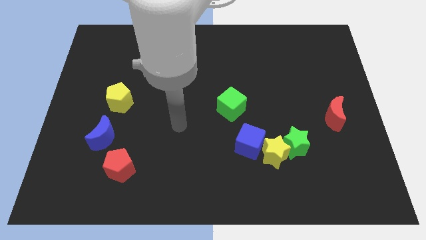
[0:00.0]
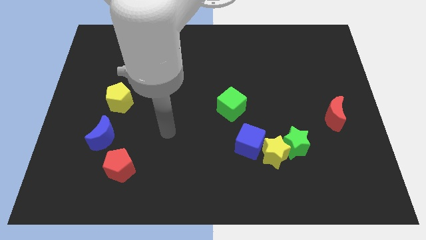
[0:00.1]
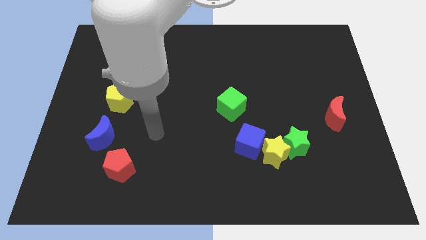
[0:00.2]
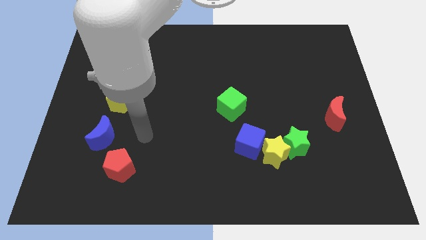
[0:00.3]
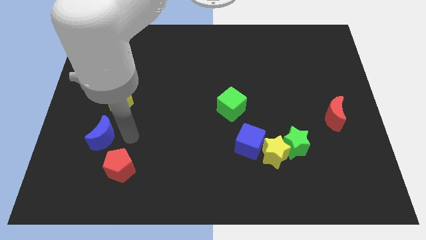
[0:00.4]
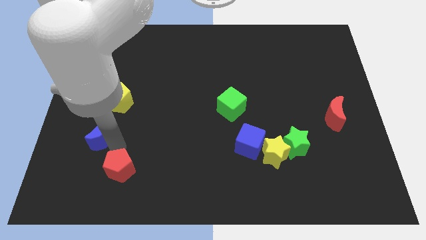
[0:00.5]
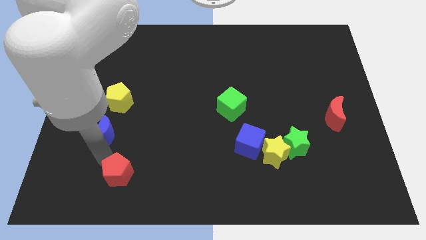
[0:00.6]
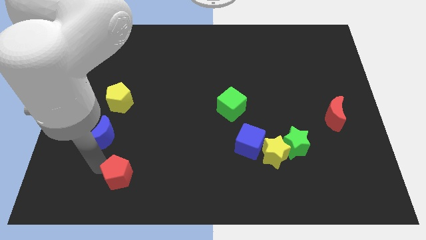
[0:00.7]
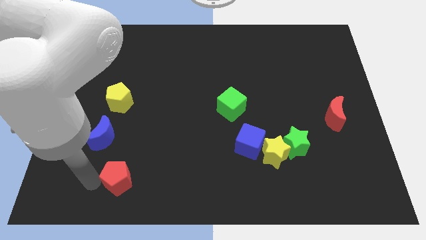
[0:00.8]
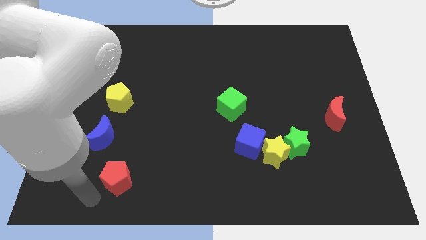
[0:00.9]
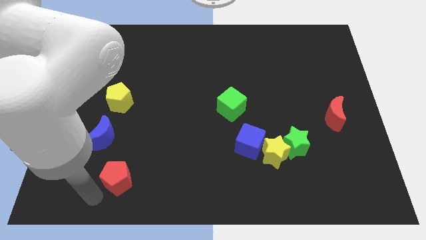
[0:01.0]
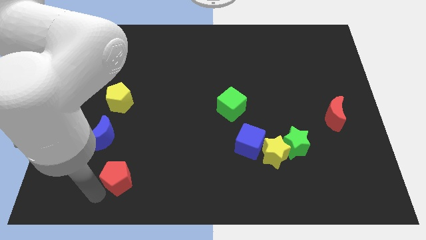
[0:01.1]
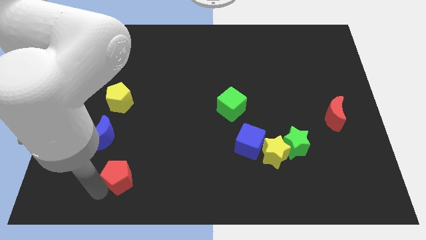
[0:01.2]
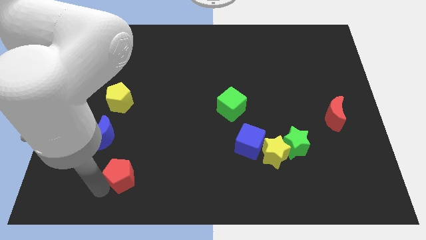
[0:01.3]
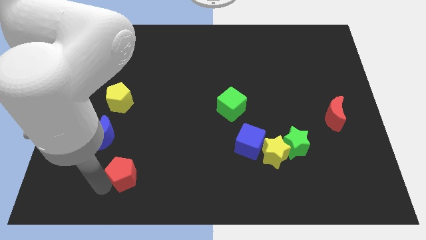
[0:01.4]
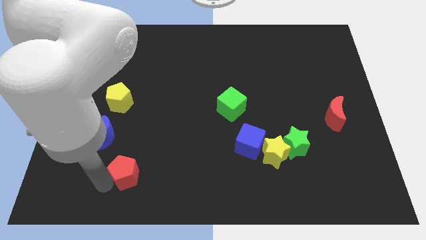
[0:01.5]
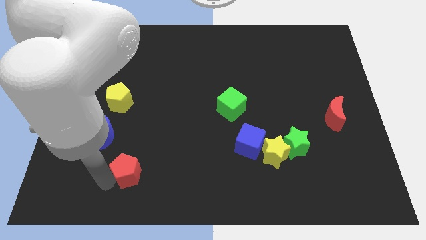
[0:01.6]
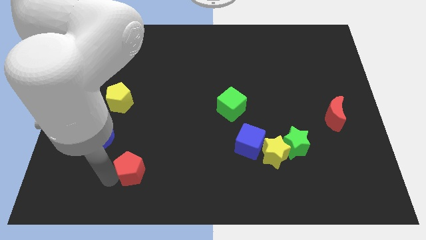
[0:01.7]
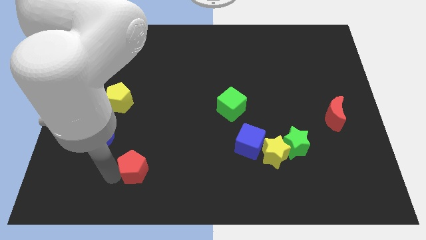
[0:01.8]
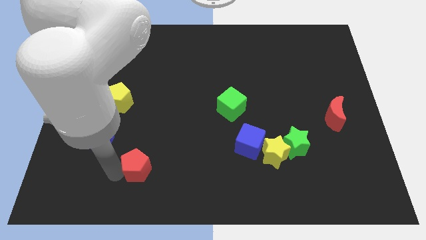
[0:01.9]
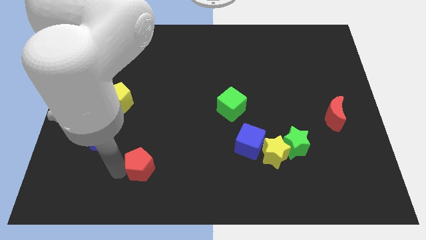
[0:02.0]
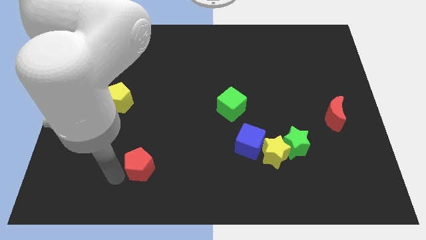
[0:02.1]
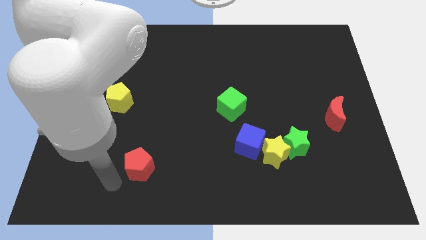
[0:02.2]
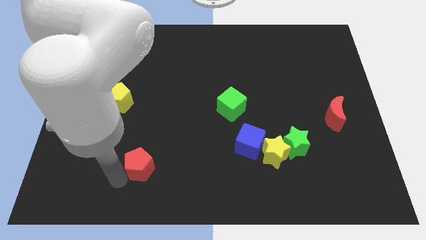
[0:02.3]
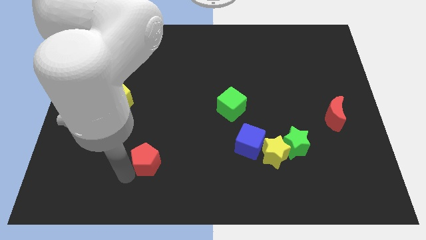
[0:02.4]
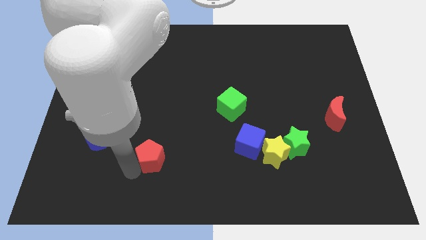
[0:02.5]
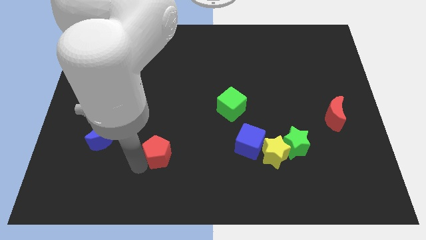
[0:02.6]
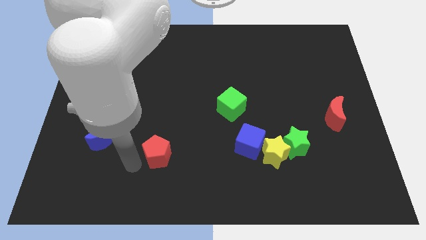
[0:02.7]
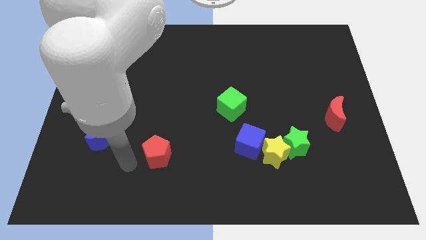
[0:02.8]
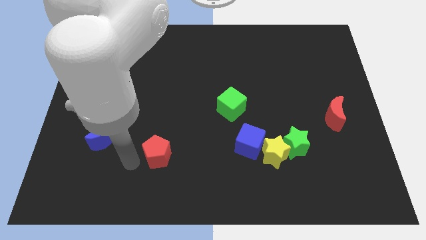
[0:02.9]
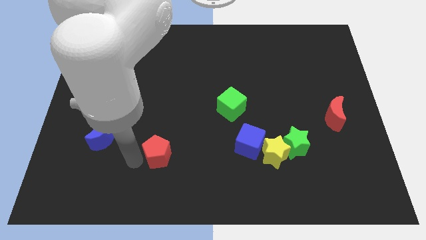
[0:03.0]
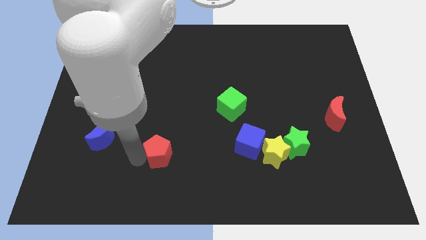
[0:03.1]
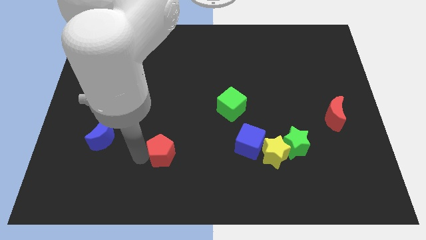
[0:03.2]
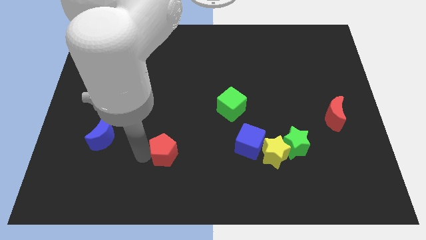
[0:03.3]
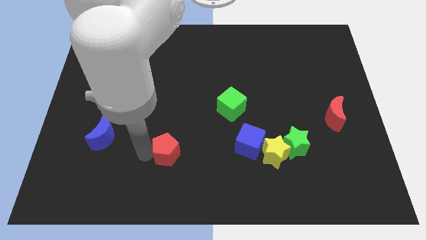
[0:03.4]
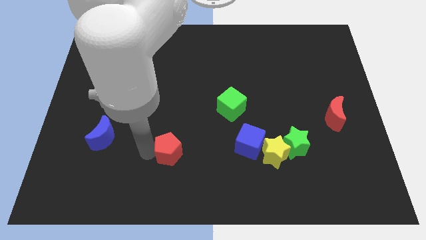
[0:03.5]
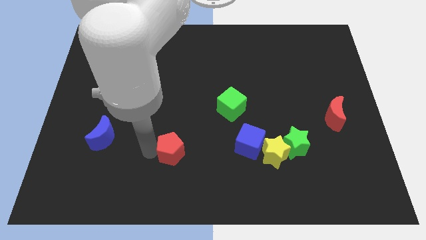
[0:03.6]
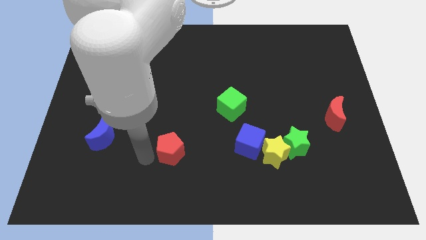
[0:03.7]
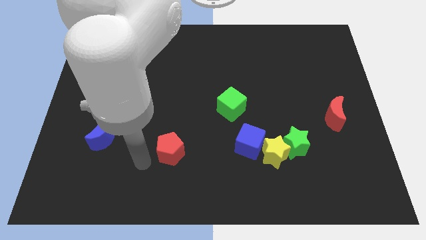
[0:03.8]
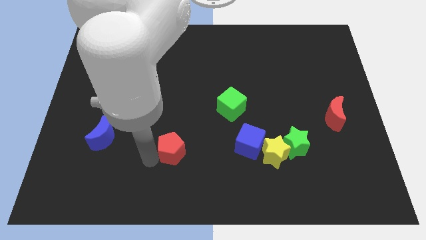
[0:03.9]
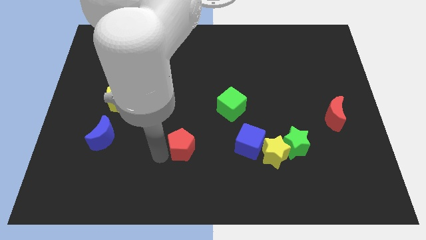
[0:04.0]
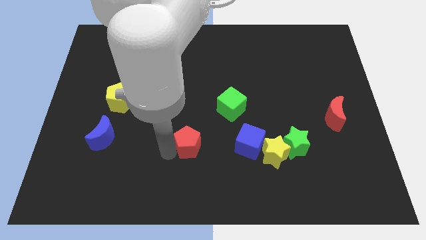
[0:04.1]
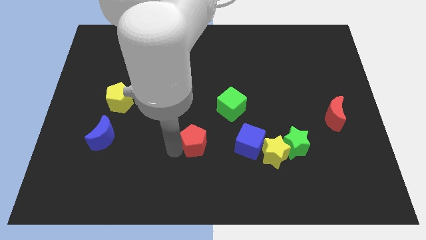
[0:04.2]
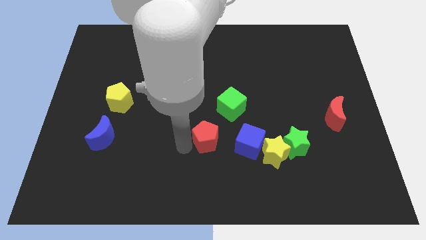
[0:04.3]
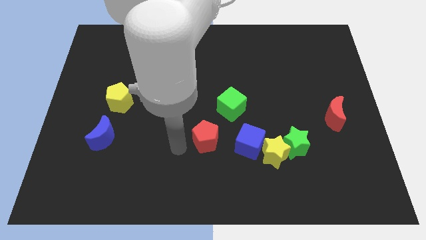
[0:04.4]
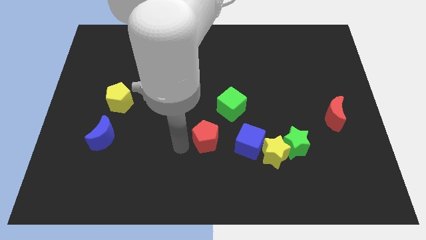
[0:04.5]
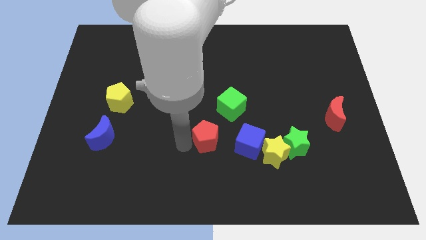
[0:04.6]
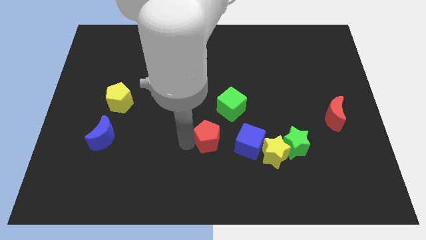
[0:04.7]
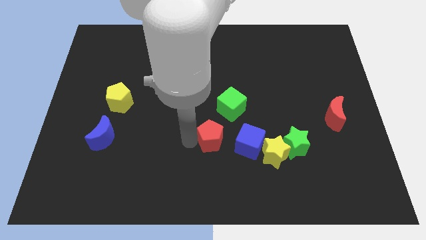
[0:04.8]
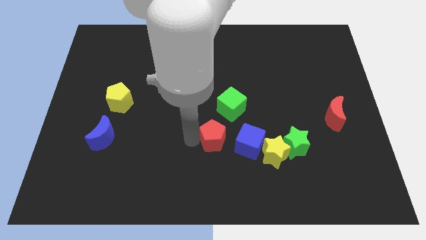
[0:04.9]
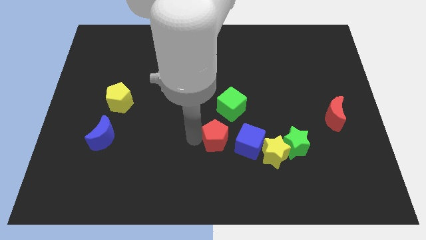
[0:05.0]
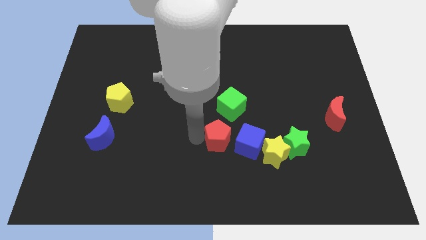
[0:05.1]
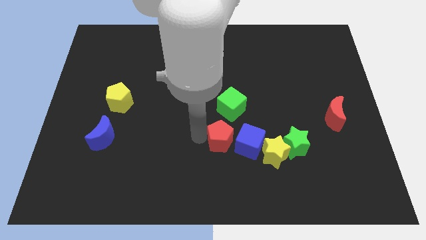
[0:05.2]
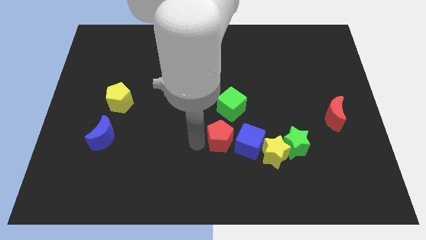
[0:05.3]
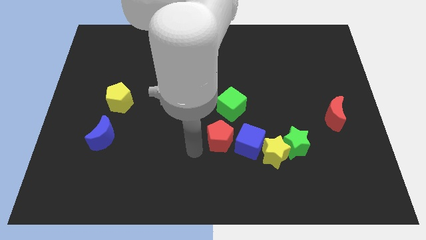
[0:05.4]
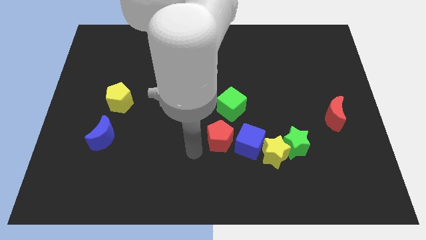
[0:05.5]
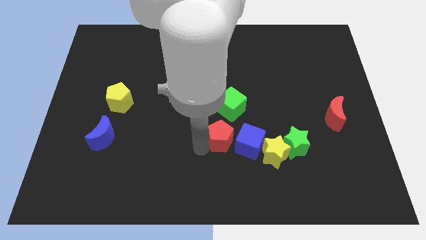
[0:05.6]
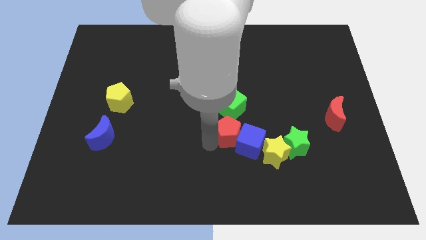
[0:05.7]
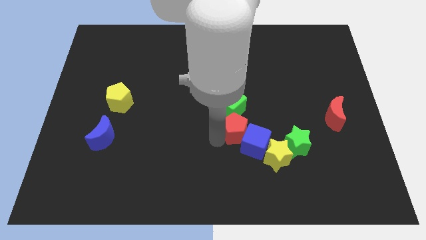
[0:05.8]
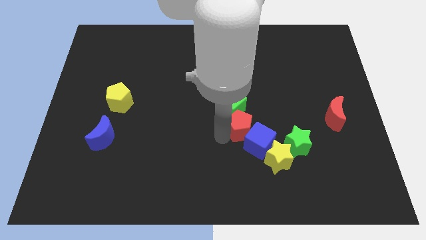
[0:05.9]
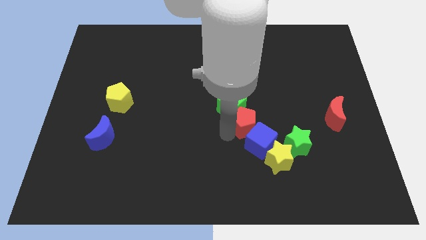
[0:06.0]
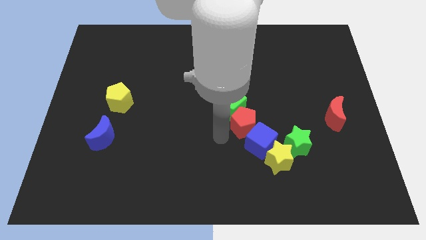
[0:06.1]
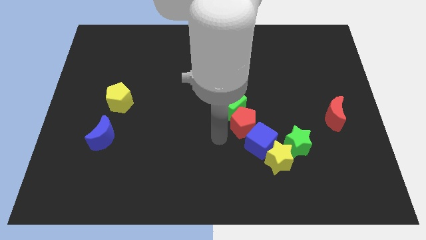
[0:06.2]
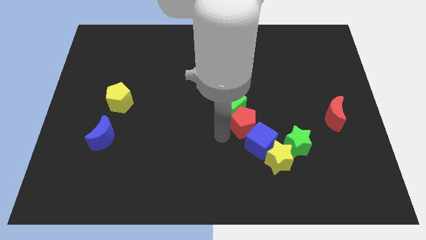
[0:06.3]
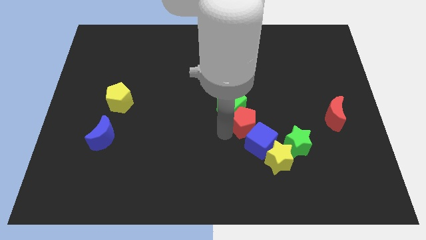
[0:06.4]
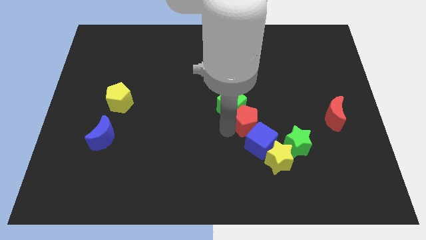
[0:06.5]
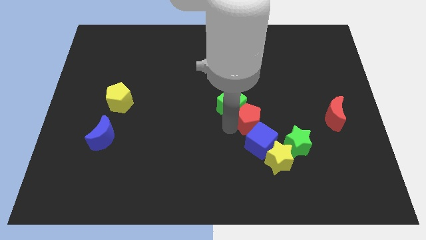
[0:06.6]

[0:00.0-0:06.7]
push the red pentagon to the right side of the green cube
